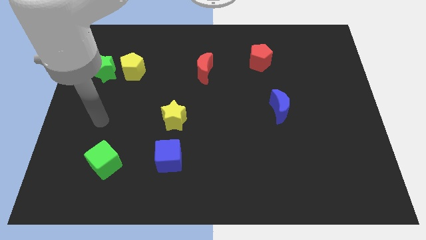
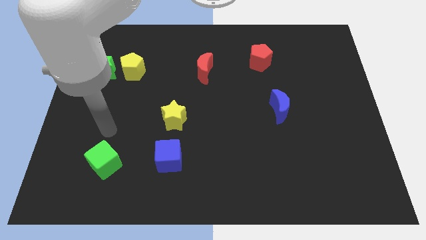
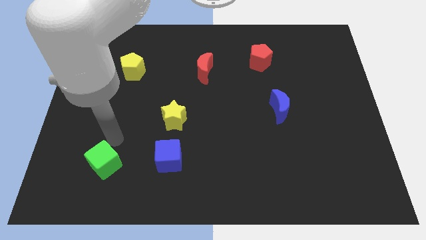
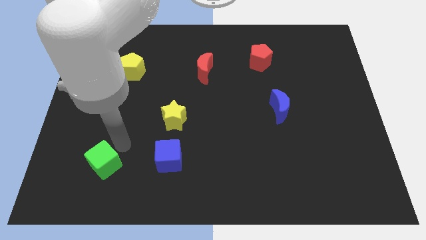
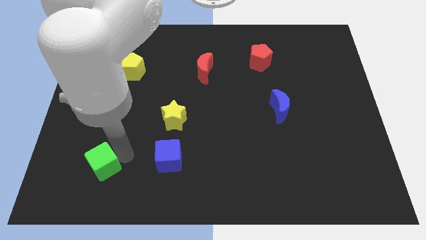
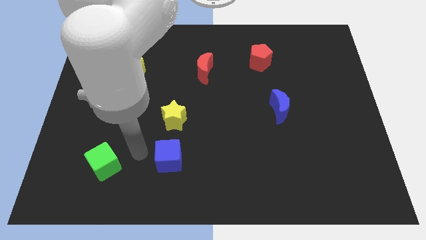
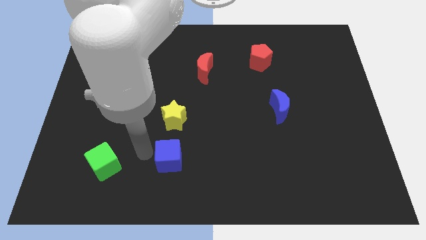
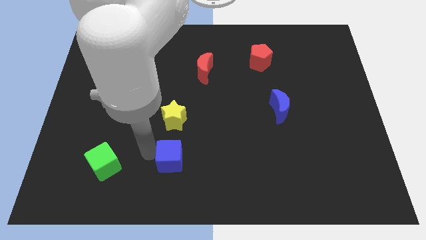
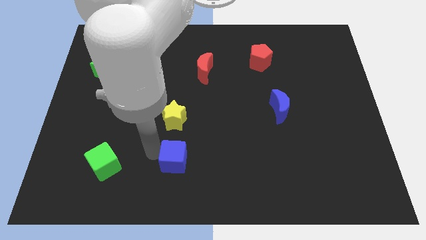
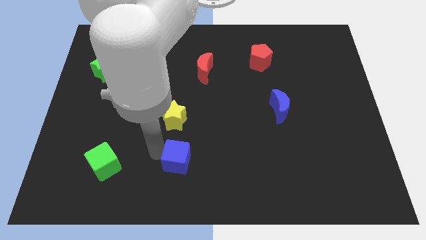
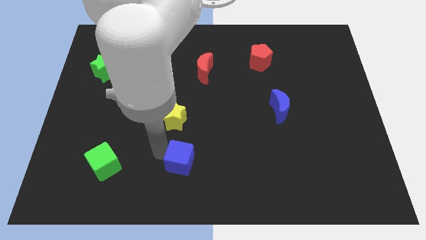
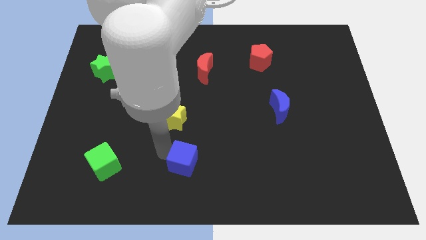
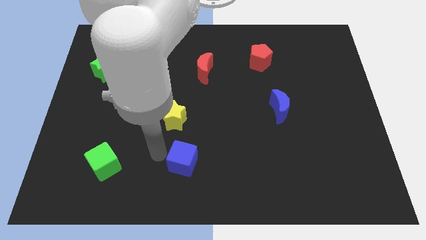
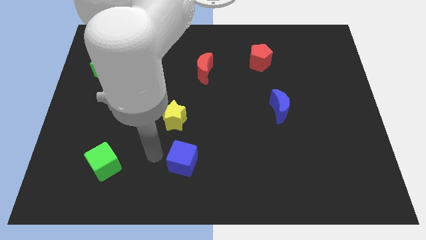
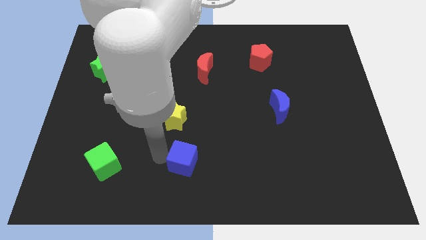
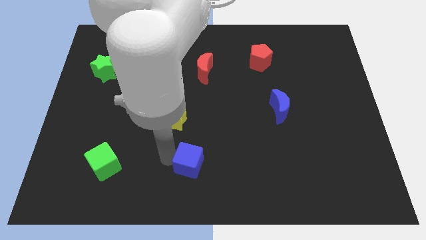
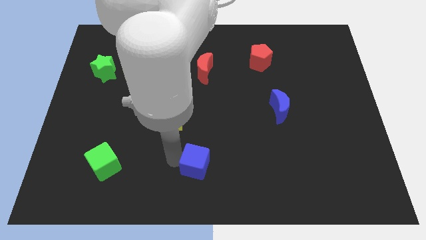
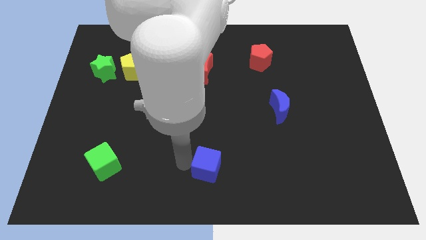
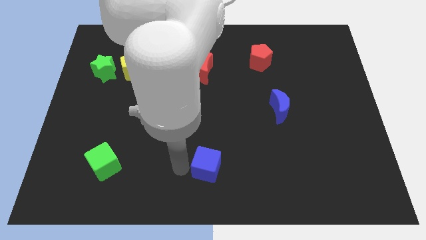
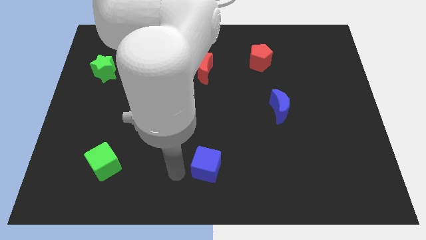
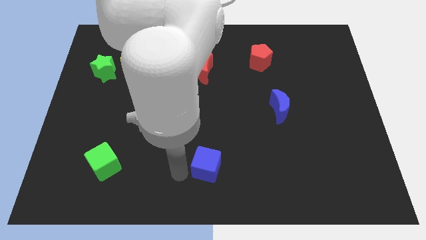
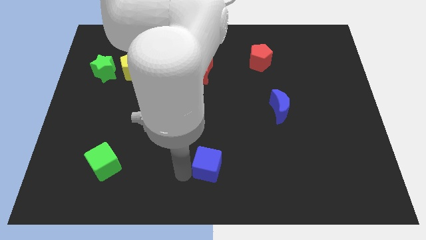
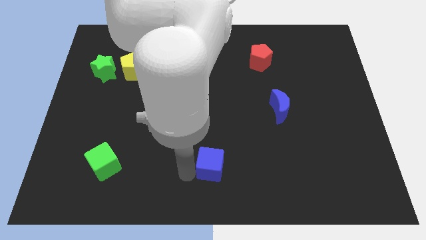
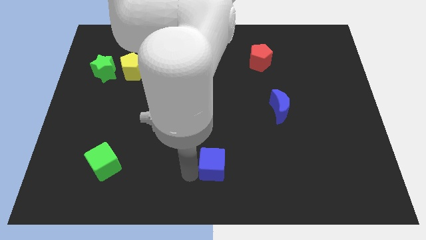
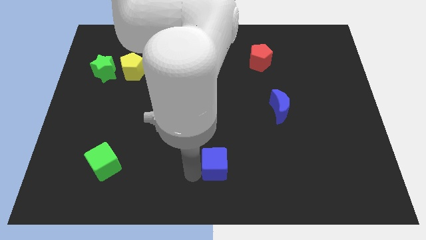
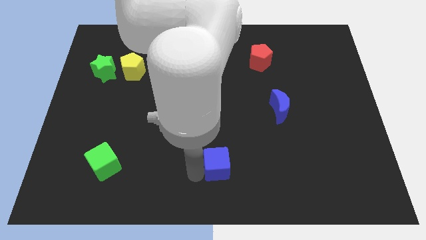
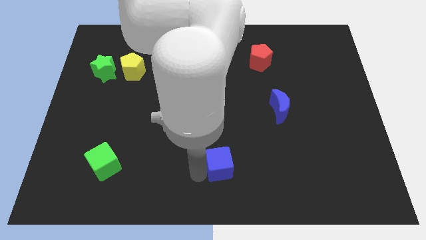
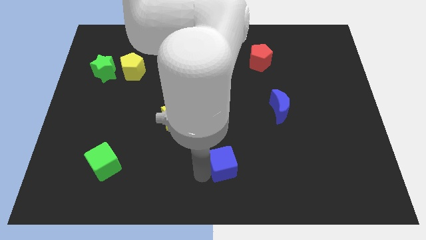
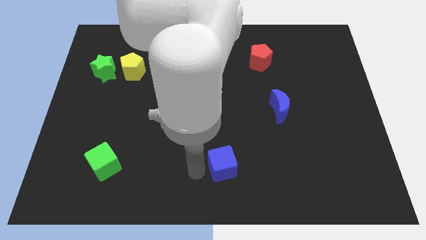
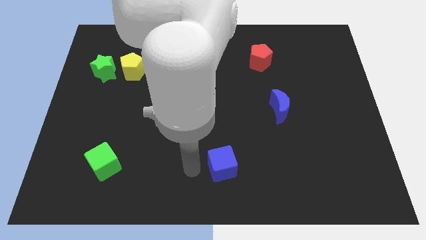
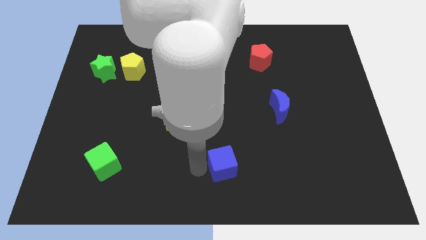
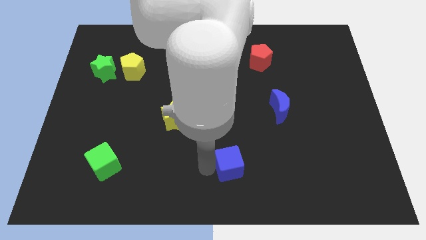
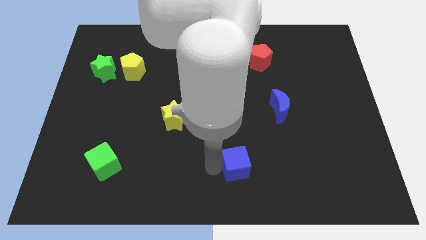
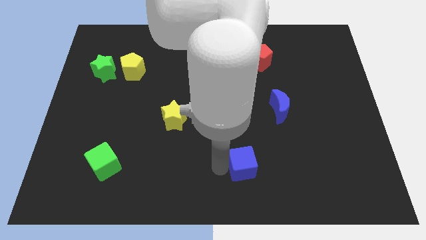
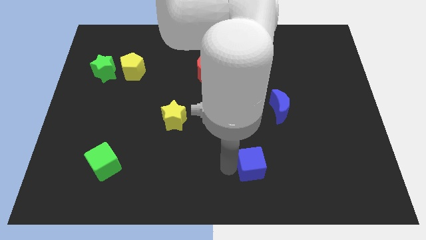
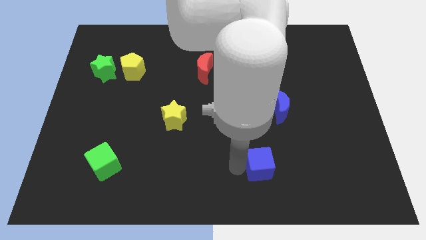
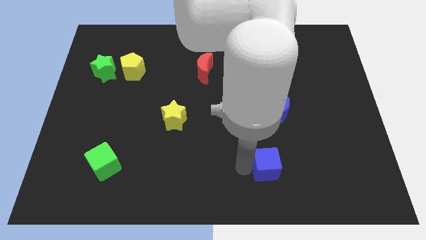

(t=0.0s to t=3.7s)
move the blue cube right

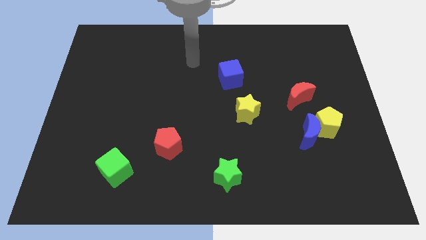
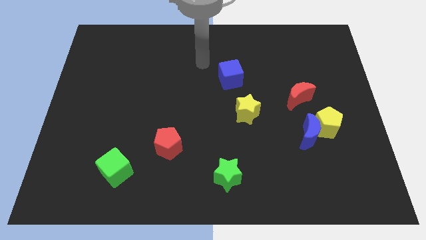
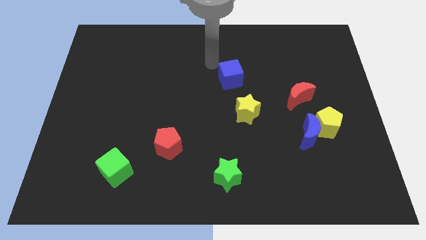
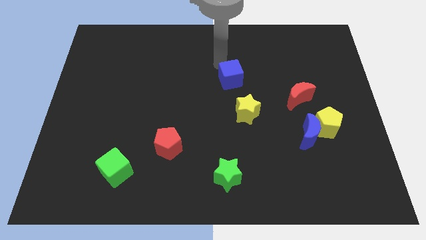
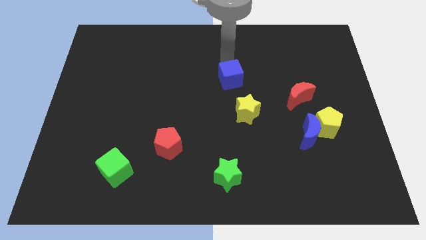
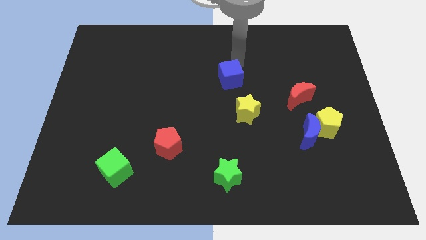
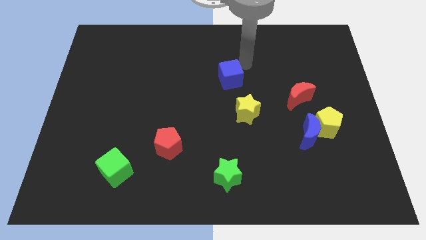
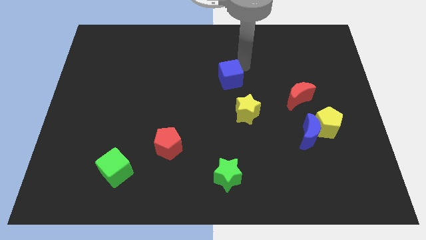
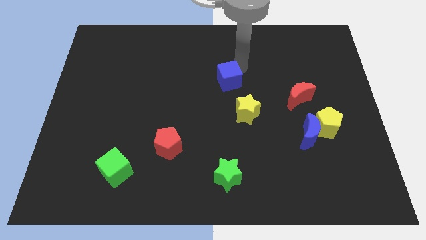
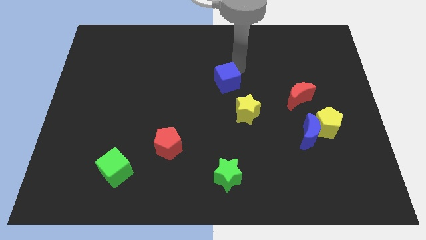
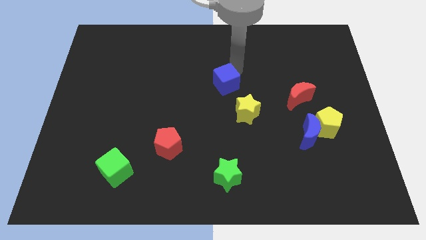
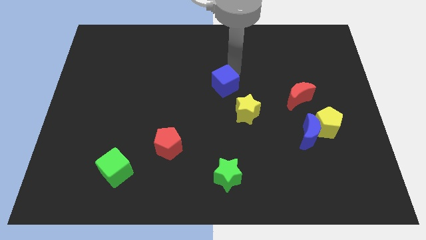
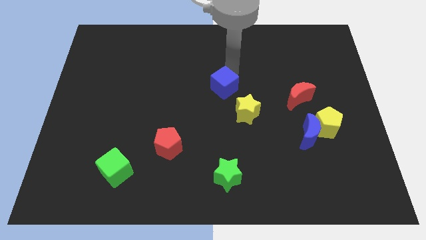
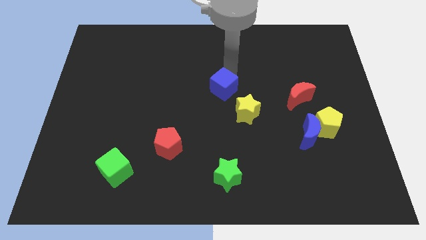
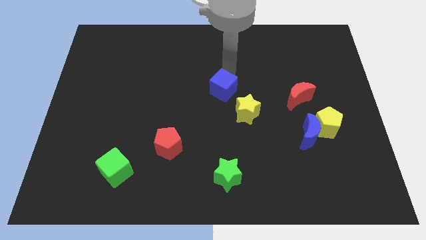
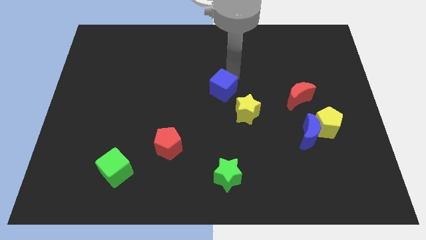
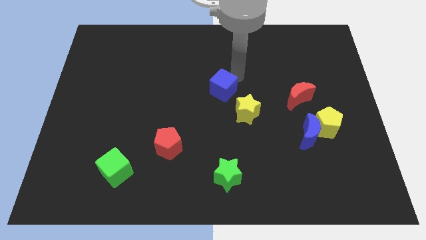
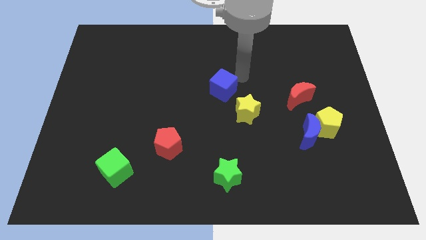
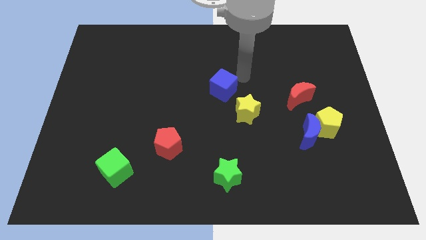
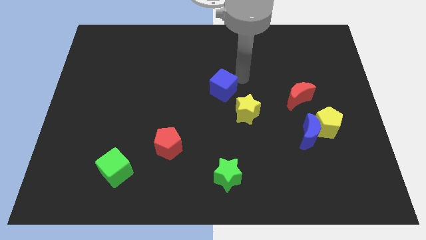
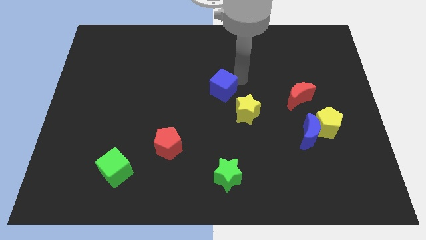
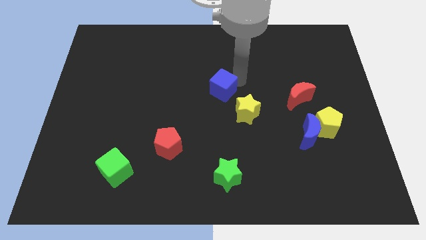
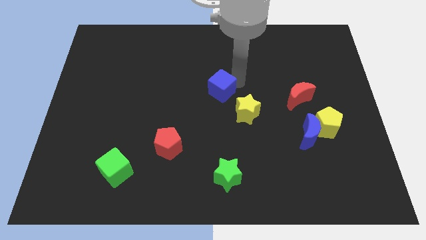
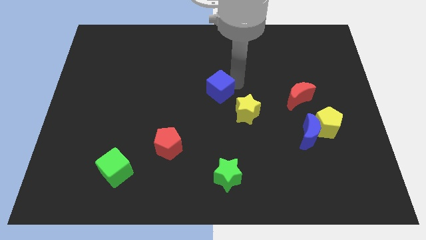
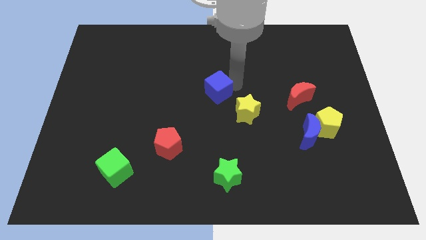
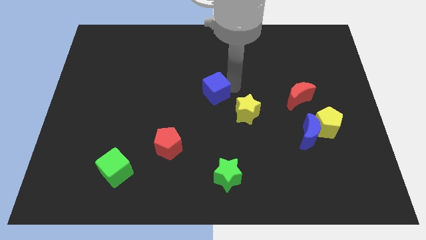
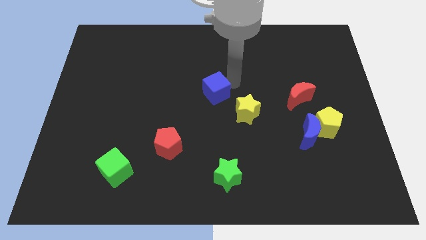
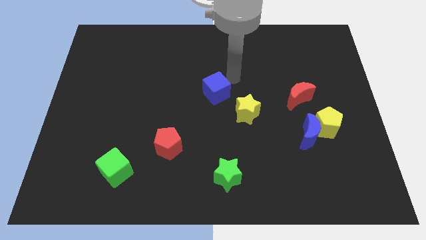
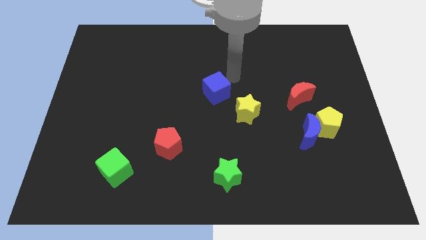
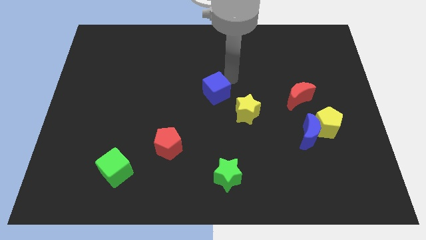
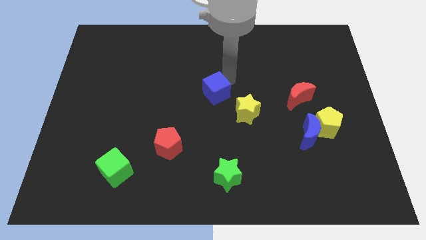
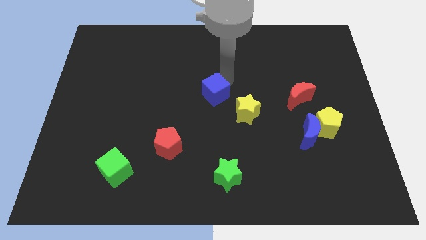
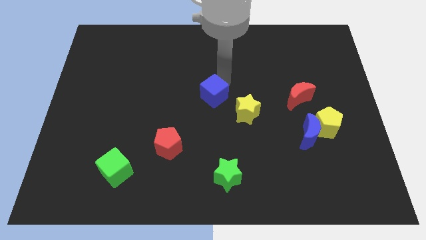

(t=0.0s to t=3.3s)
slightly move the blue cube down and then left

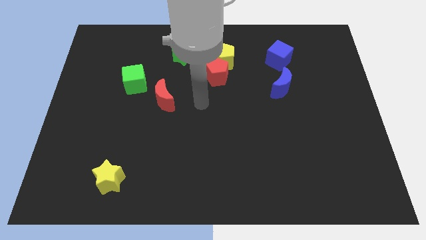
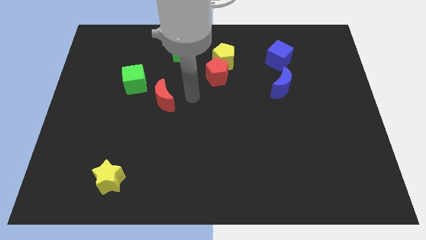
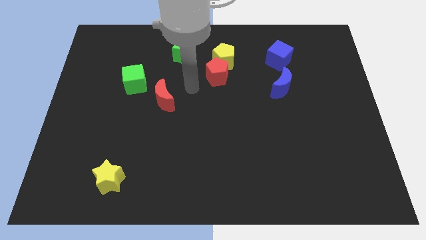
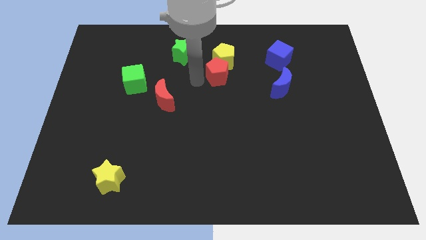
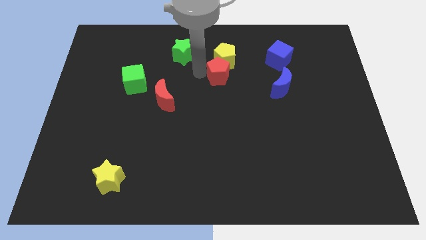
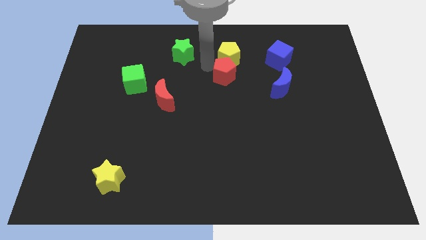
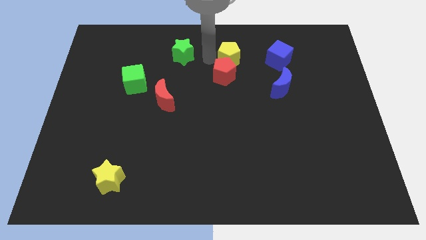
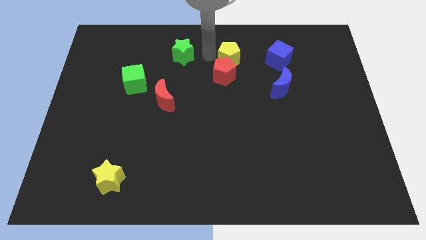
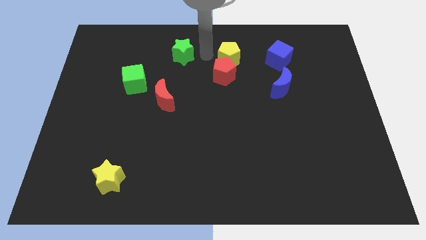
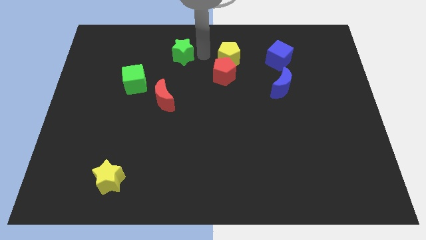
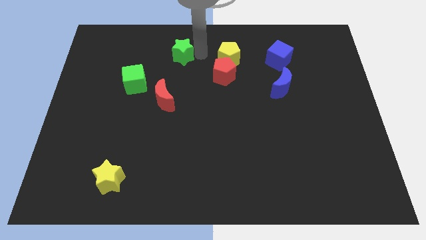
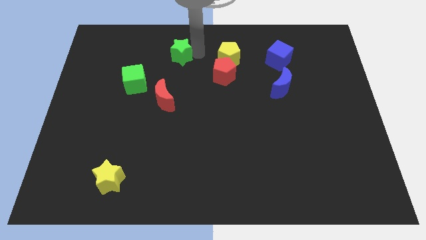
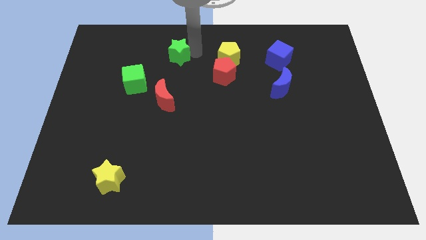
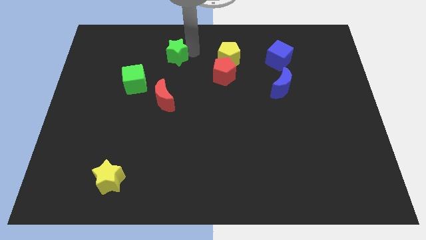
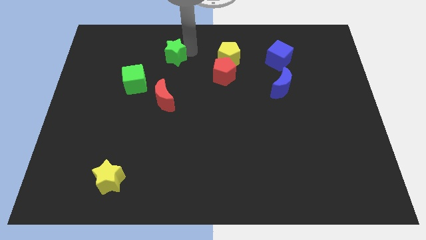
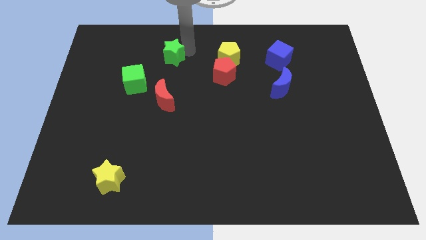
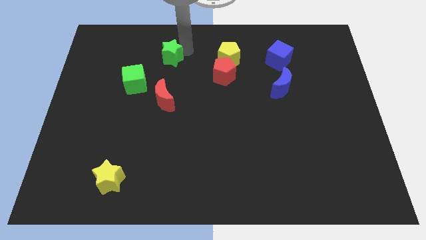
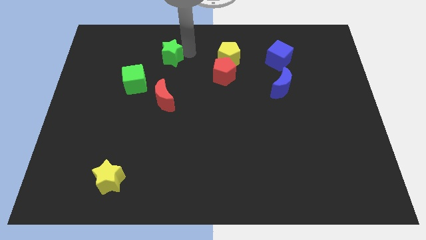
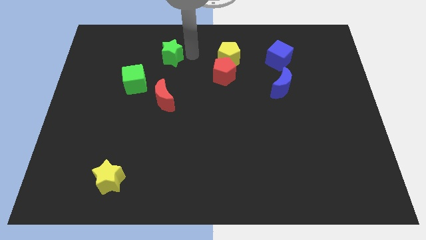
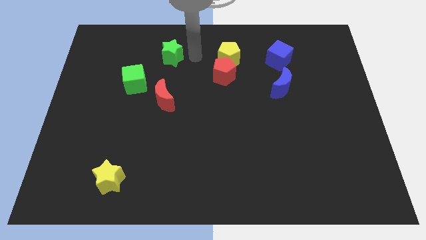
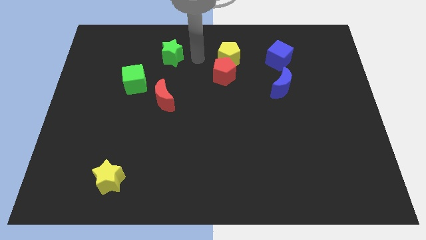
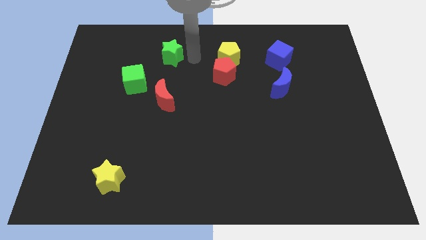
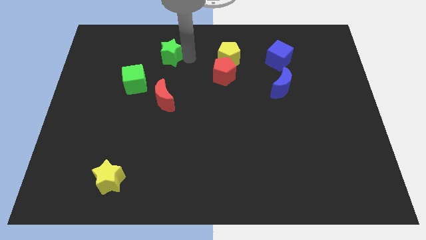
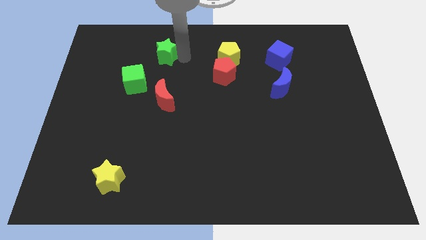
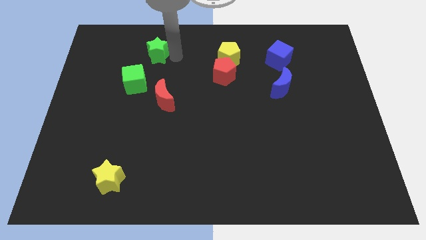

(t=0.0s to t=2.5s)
slightly slide the green star to the left
